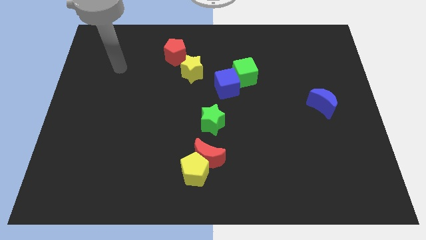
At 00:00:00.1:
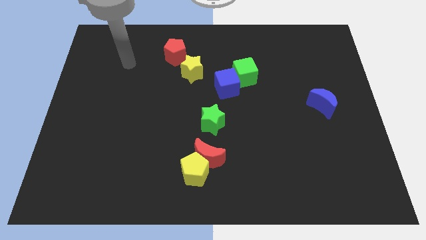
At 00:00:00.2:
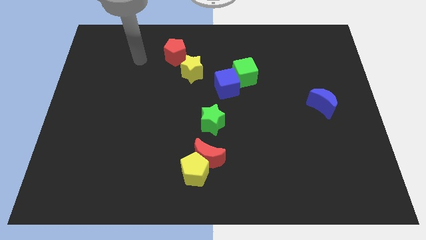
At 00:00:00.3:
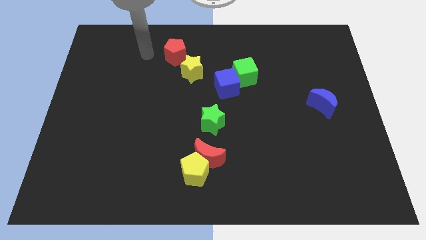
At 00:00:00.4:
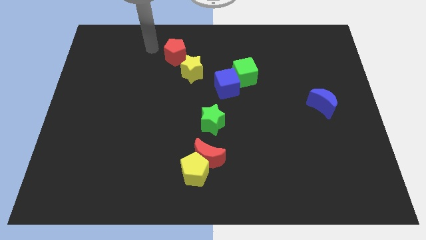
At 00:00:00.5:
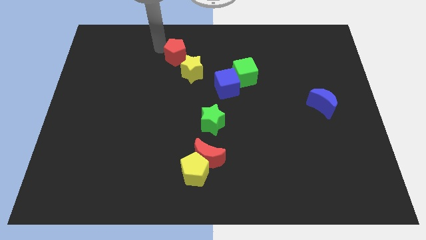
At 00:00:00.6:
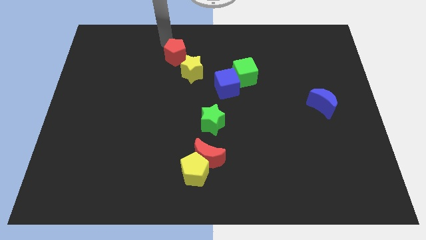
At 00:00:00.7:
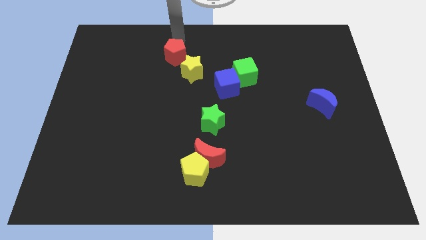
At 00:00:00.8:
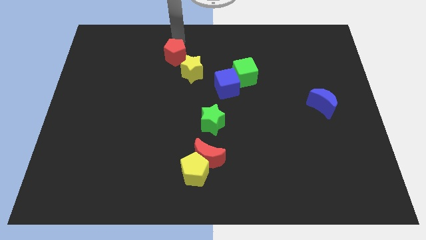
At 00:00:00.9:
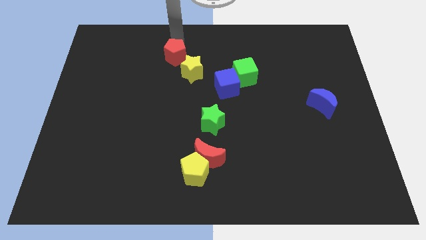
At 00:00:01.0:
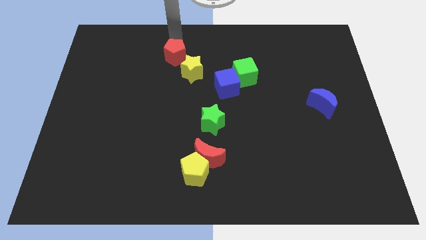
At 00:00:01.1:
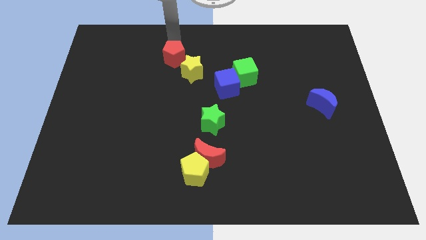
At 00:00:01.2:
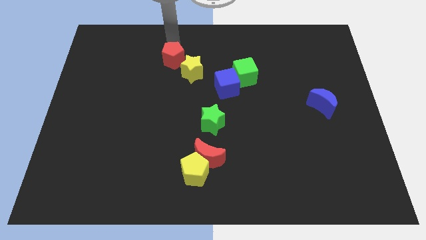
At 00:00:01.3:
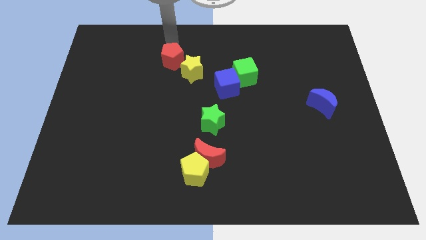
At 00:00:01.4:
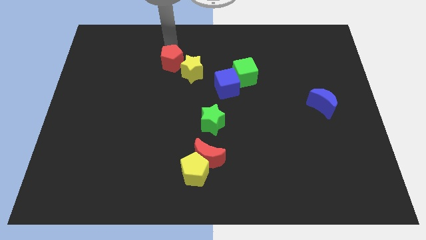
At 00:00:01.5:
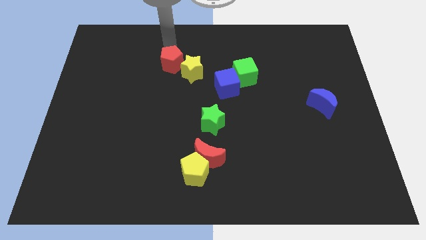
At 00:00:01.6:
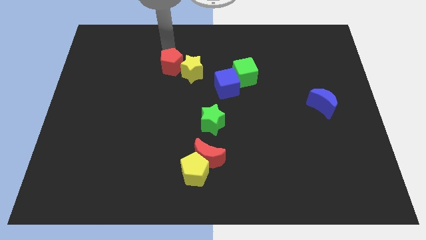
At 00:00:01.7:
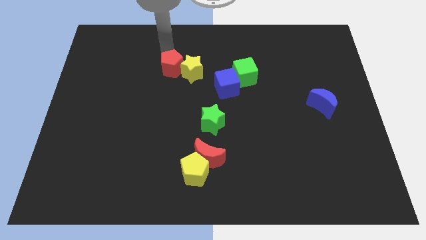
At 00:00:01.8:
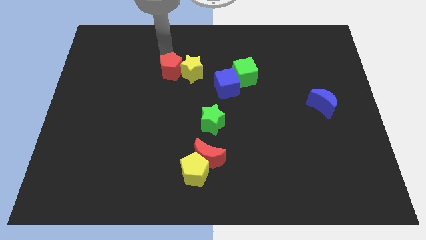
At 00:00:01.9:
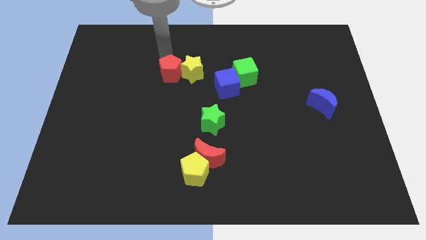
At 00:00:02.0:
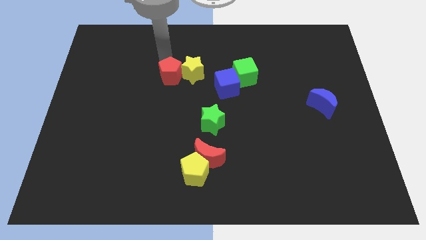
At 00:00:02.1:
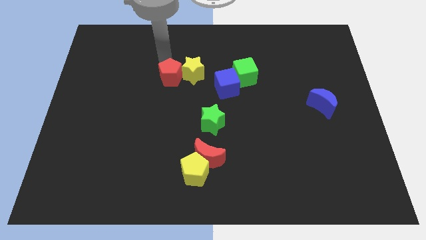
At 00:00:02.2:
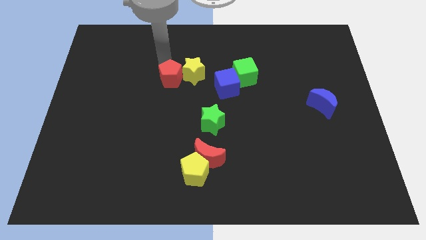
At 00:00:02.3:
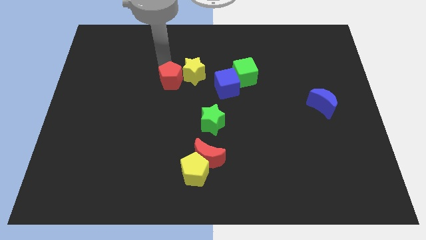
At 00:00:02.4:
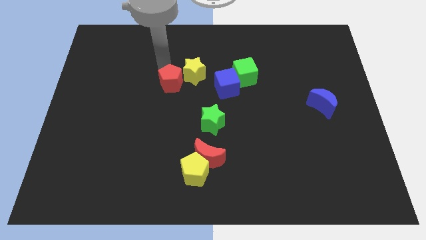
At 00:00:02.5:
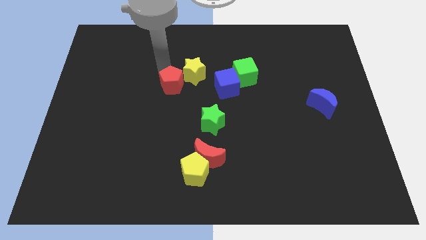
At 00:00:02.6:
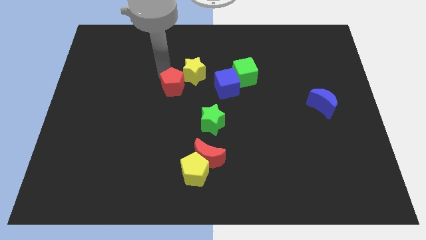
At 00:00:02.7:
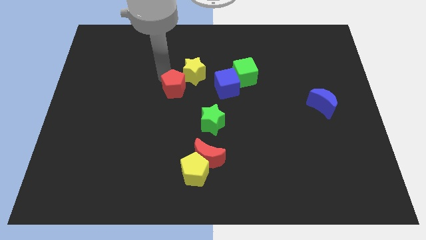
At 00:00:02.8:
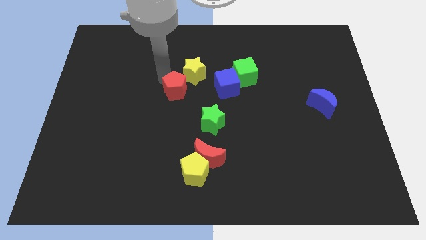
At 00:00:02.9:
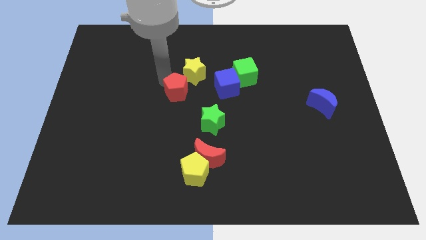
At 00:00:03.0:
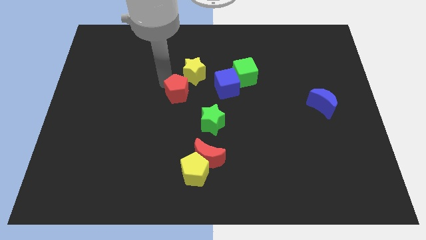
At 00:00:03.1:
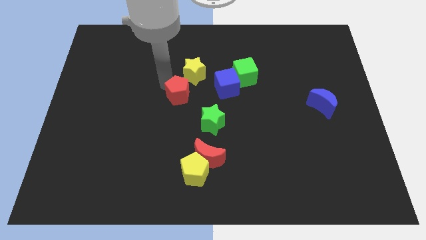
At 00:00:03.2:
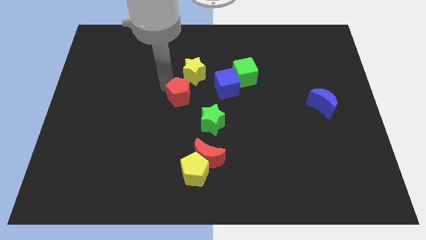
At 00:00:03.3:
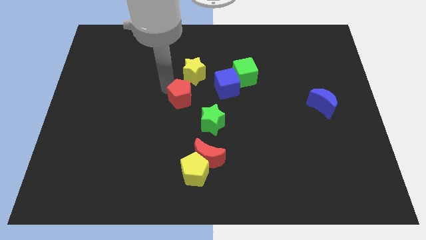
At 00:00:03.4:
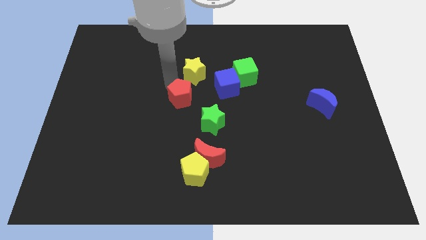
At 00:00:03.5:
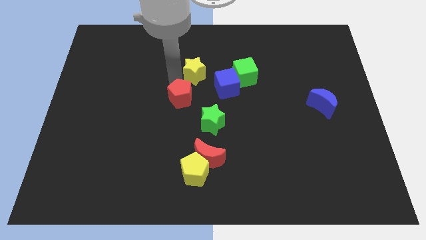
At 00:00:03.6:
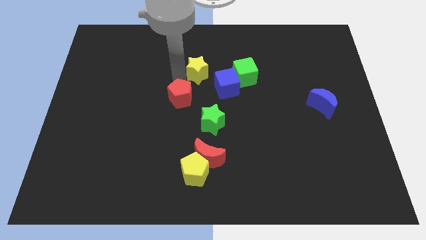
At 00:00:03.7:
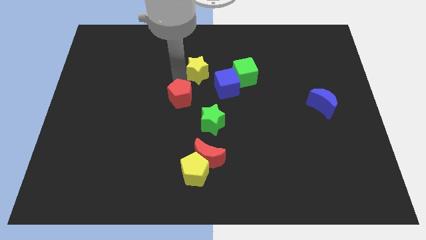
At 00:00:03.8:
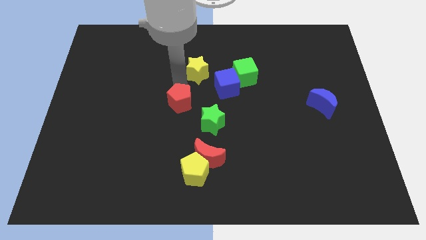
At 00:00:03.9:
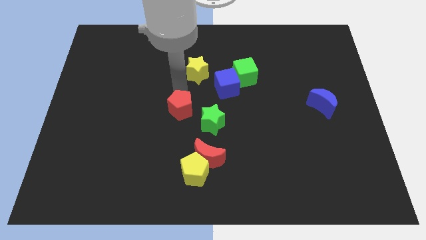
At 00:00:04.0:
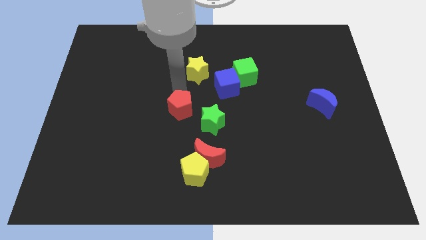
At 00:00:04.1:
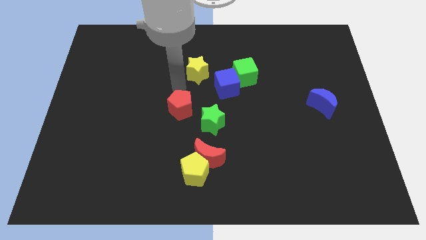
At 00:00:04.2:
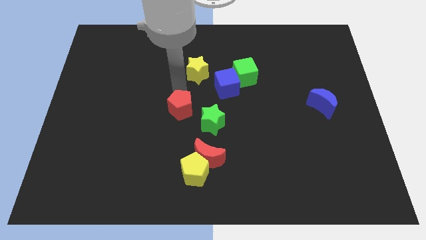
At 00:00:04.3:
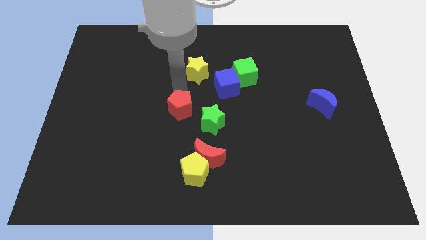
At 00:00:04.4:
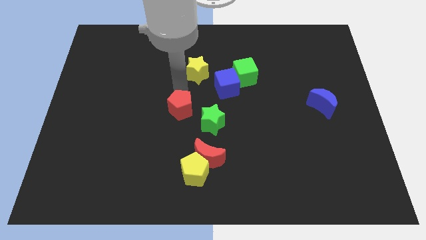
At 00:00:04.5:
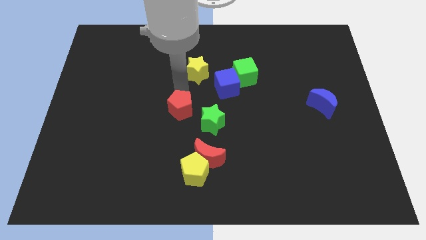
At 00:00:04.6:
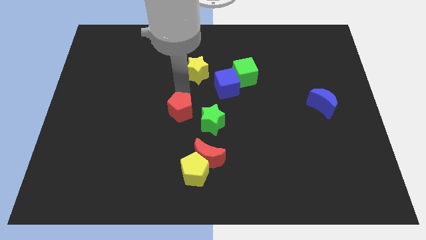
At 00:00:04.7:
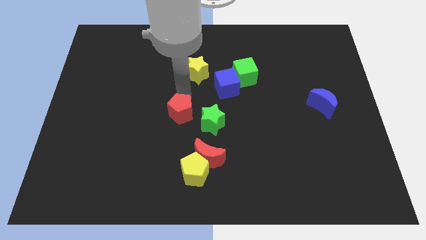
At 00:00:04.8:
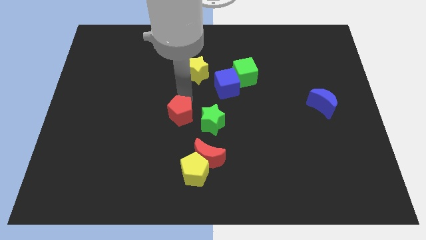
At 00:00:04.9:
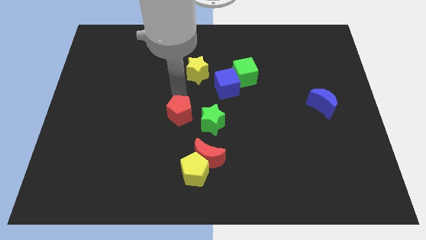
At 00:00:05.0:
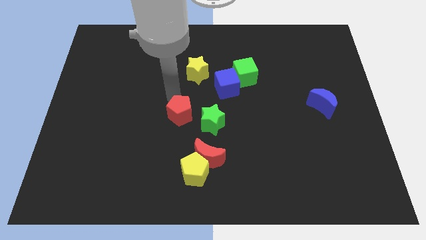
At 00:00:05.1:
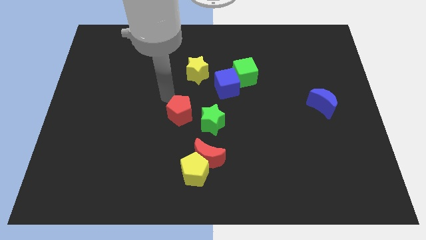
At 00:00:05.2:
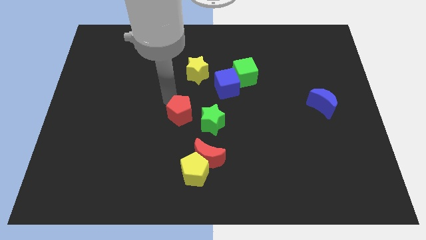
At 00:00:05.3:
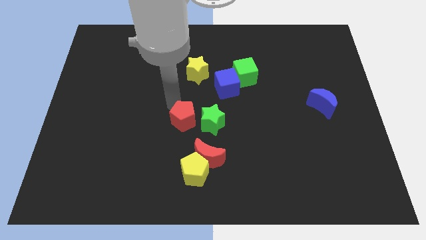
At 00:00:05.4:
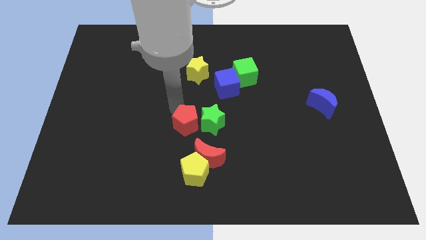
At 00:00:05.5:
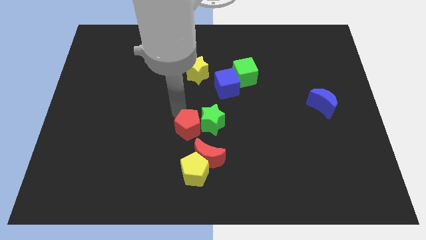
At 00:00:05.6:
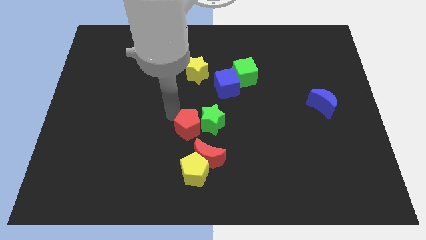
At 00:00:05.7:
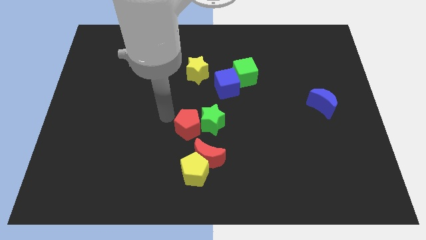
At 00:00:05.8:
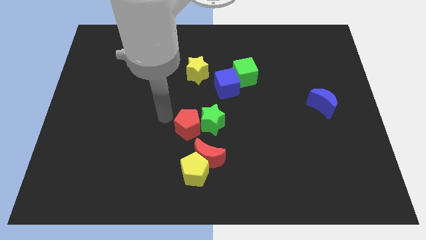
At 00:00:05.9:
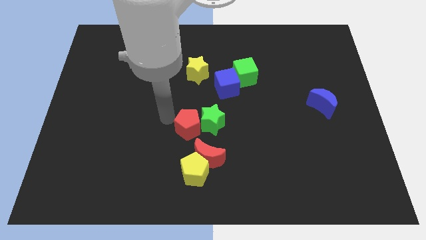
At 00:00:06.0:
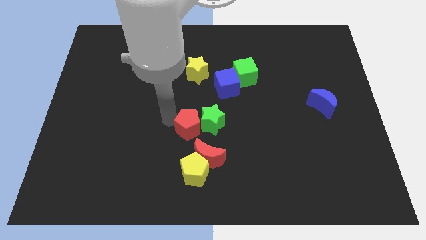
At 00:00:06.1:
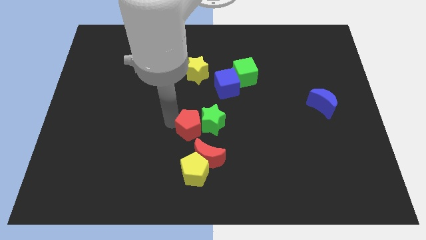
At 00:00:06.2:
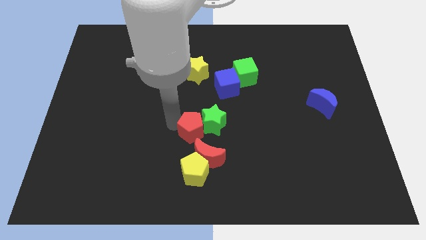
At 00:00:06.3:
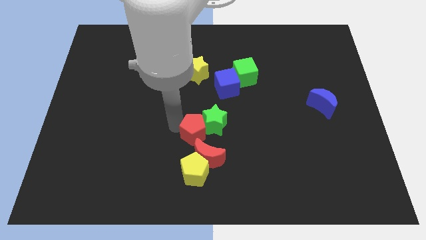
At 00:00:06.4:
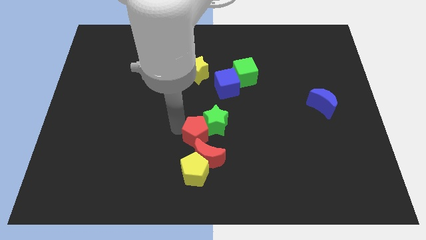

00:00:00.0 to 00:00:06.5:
put the red pentagon below the green star
